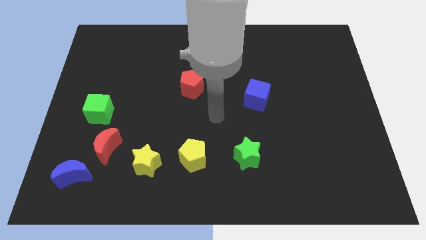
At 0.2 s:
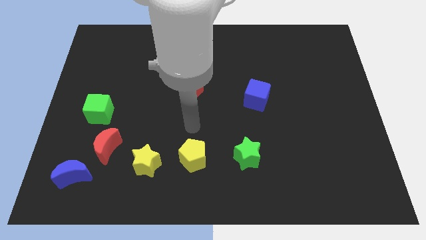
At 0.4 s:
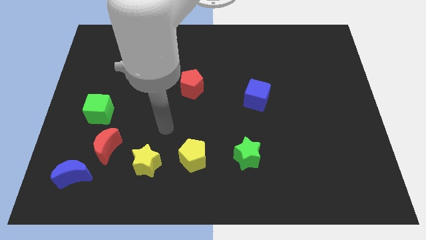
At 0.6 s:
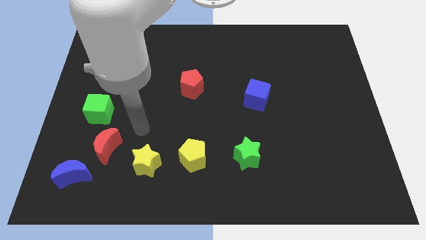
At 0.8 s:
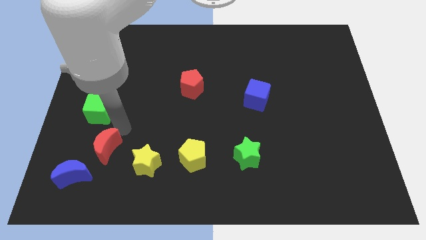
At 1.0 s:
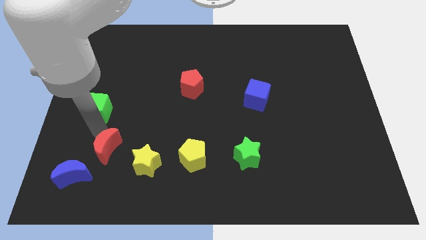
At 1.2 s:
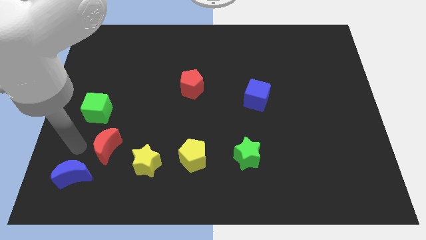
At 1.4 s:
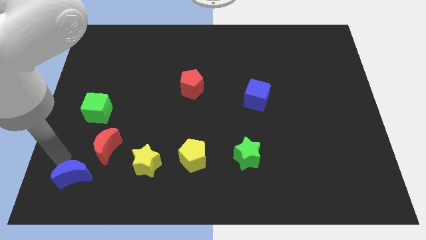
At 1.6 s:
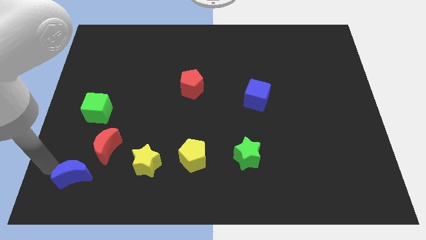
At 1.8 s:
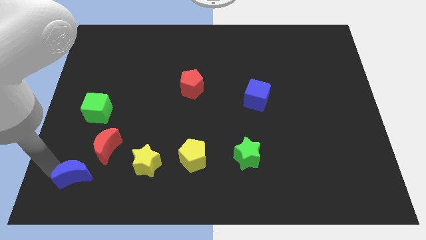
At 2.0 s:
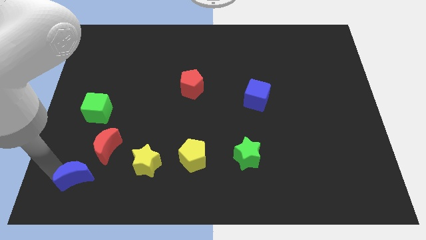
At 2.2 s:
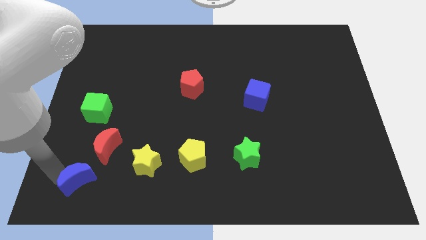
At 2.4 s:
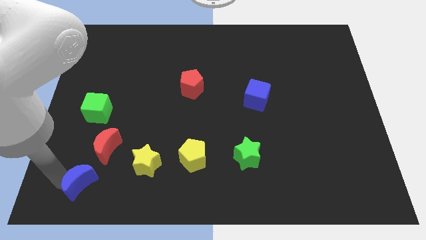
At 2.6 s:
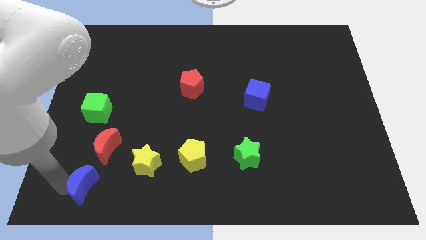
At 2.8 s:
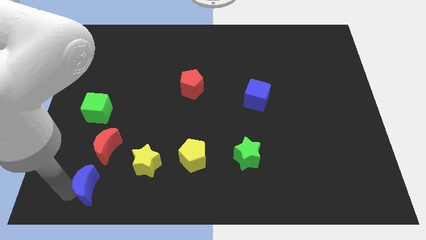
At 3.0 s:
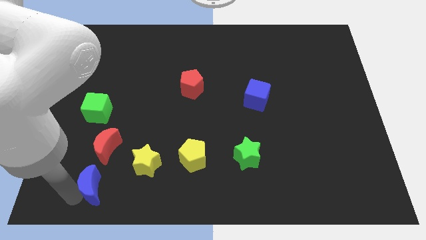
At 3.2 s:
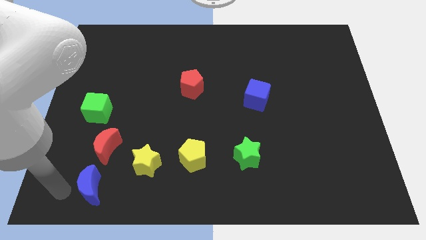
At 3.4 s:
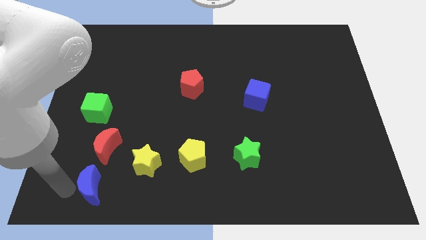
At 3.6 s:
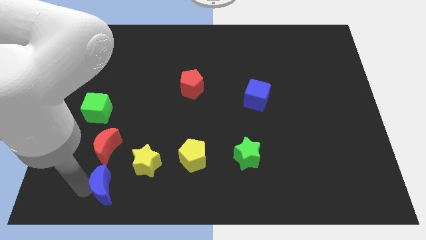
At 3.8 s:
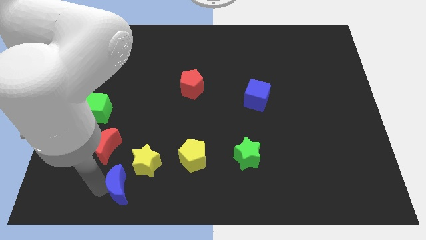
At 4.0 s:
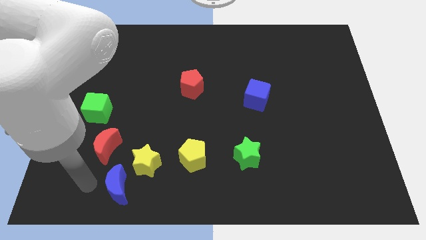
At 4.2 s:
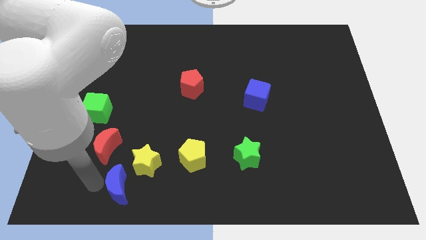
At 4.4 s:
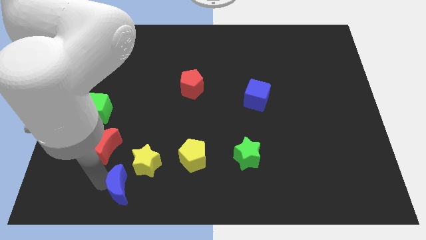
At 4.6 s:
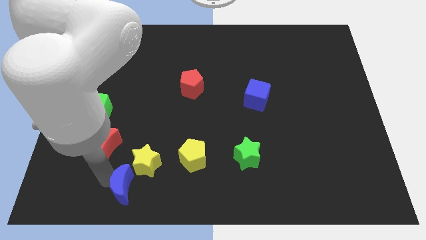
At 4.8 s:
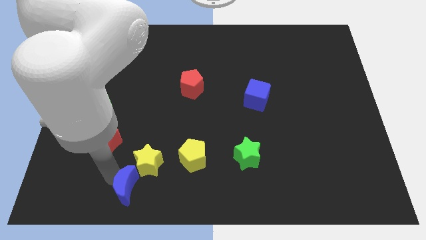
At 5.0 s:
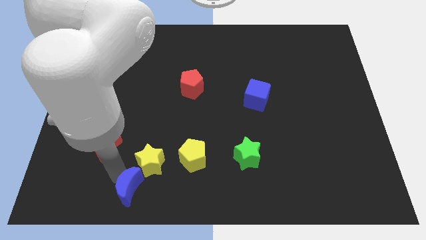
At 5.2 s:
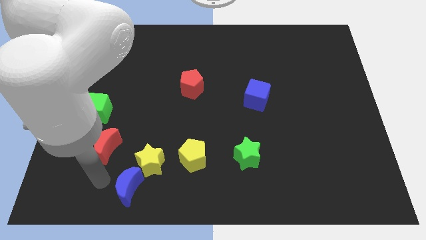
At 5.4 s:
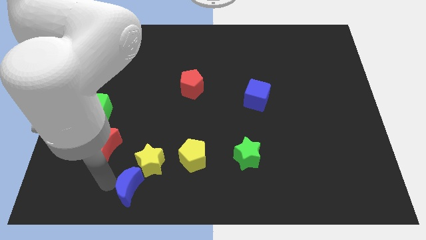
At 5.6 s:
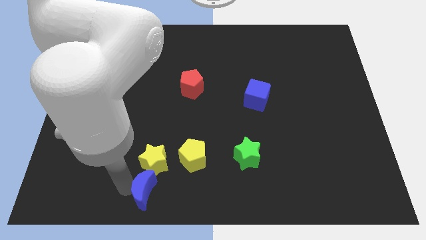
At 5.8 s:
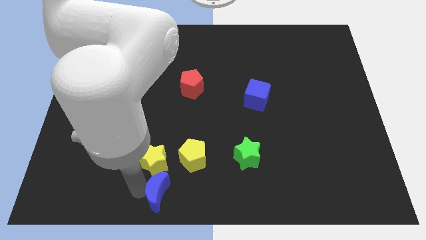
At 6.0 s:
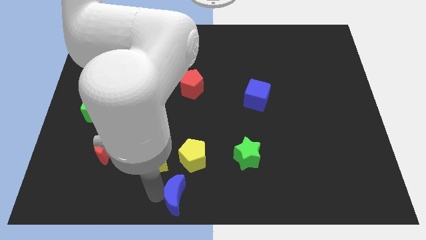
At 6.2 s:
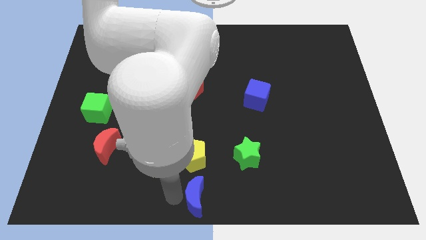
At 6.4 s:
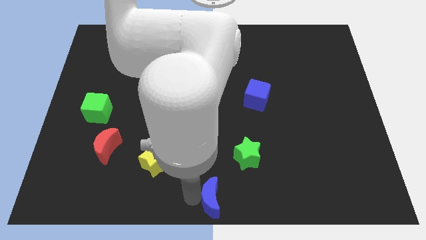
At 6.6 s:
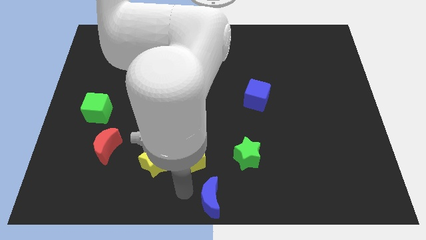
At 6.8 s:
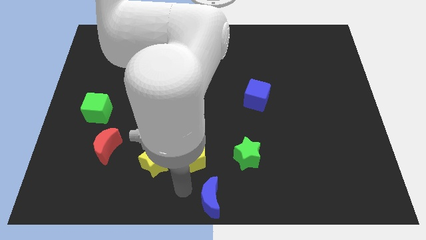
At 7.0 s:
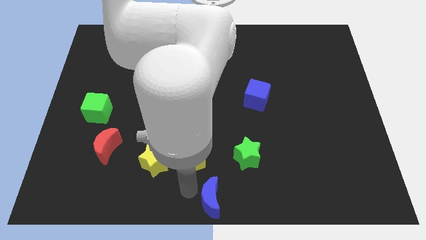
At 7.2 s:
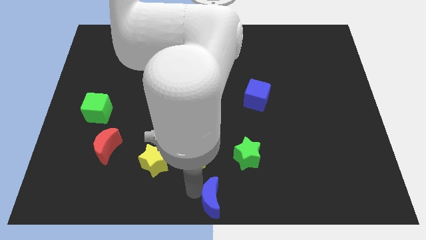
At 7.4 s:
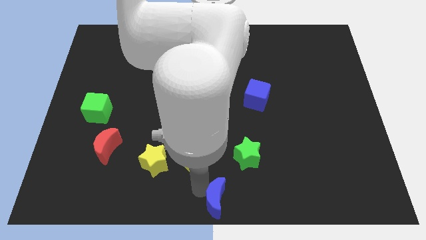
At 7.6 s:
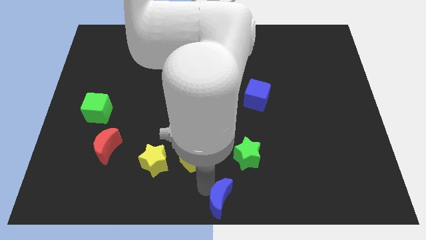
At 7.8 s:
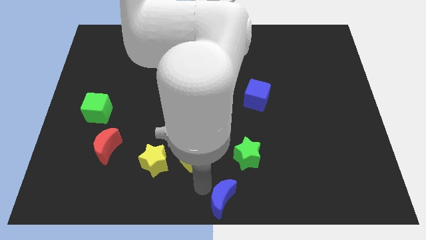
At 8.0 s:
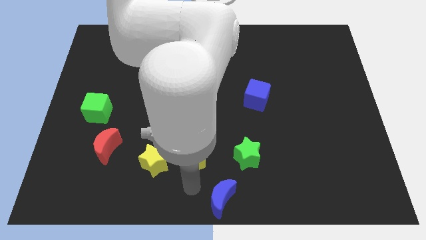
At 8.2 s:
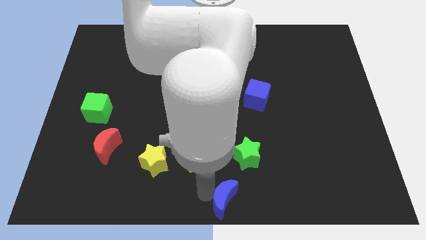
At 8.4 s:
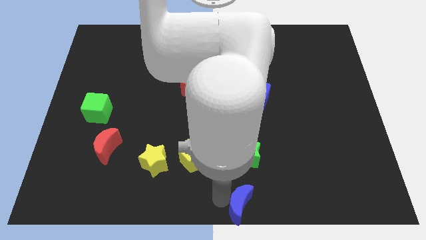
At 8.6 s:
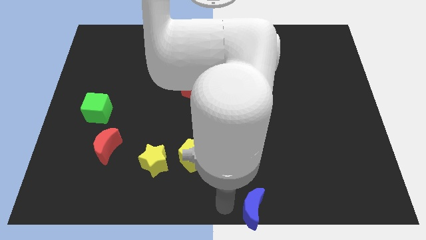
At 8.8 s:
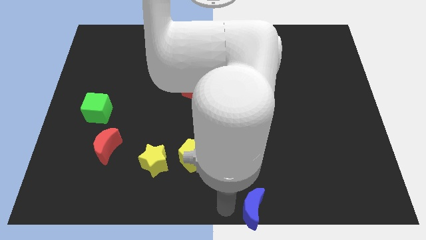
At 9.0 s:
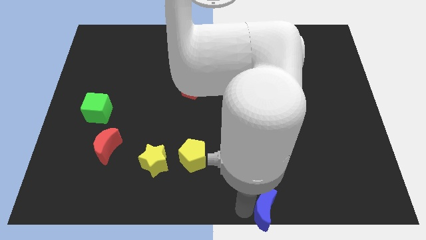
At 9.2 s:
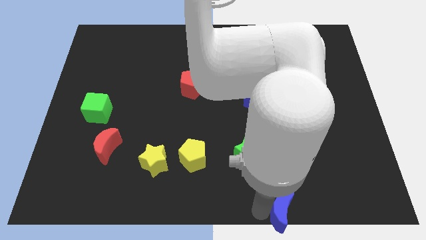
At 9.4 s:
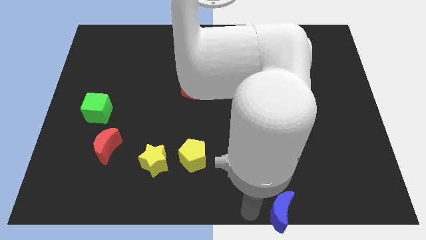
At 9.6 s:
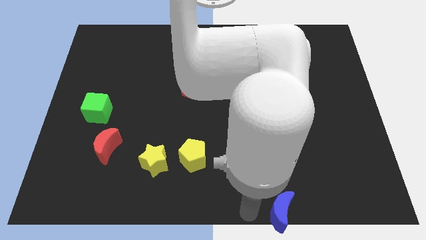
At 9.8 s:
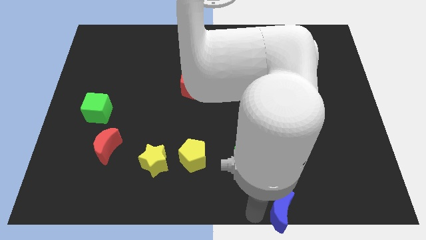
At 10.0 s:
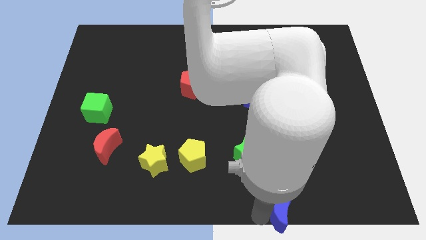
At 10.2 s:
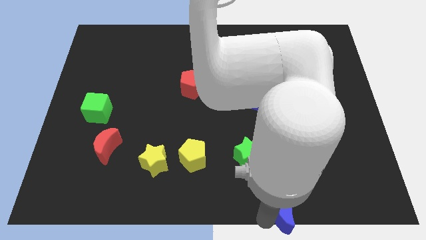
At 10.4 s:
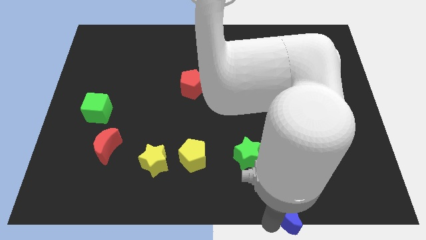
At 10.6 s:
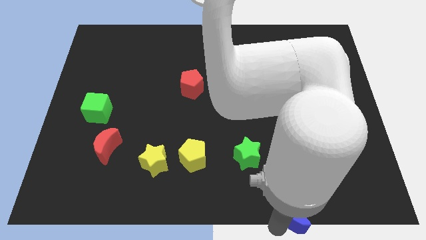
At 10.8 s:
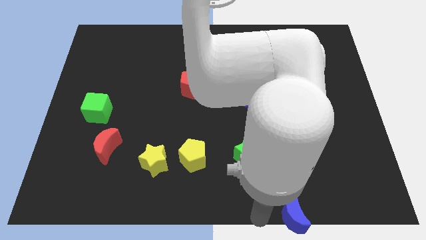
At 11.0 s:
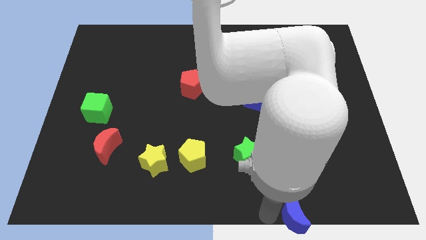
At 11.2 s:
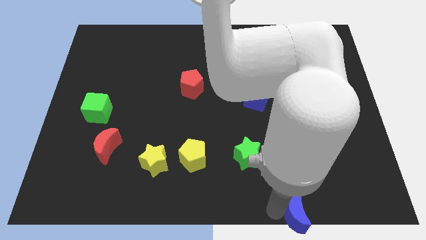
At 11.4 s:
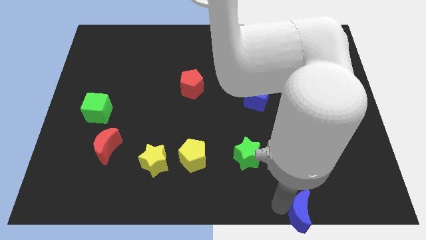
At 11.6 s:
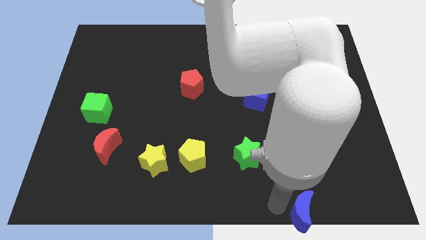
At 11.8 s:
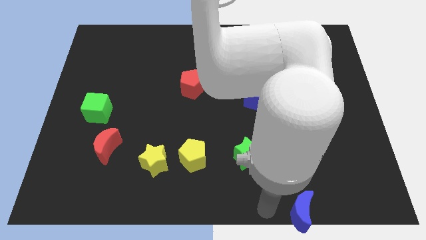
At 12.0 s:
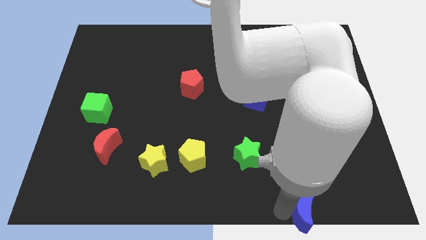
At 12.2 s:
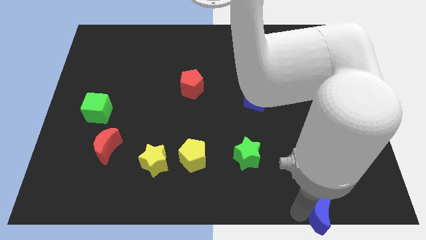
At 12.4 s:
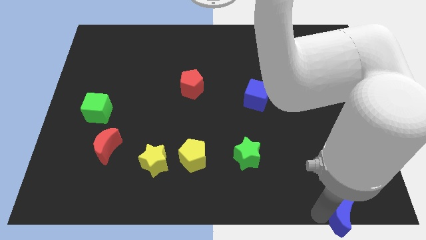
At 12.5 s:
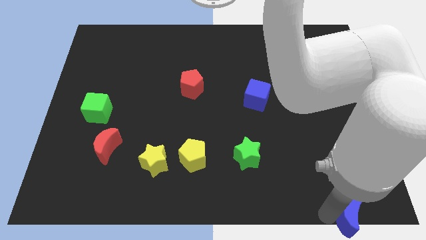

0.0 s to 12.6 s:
push the blue moon to the bottom right of the board
